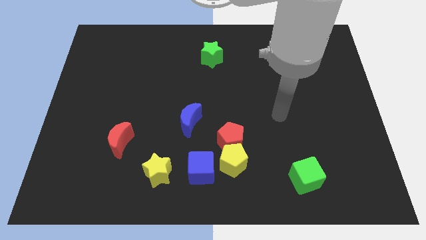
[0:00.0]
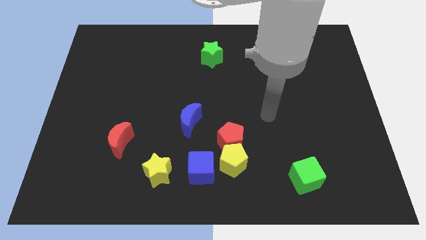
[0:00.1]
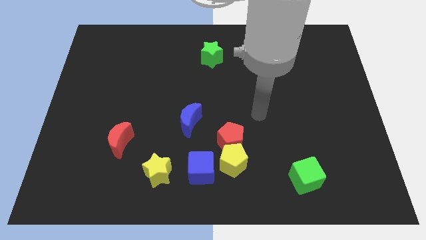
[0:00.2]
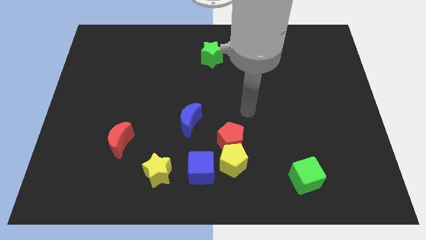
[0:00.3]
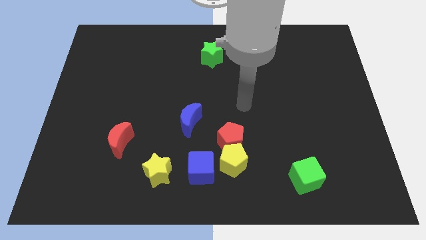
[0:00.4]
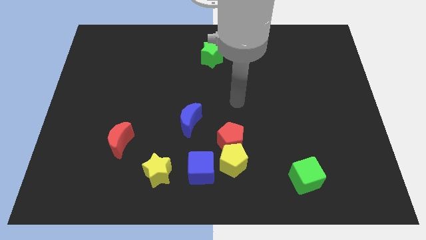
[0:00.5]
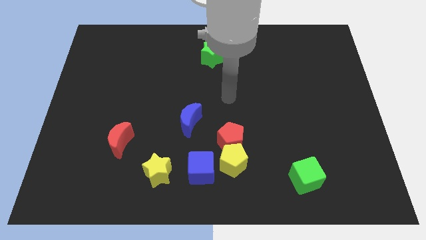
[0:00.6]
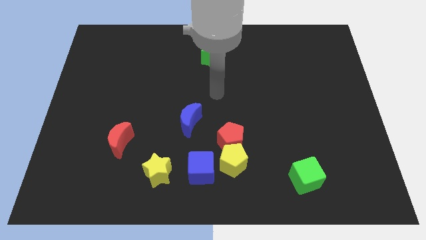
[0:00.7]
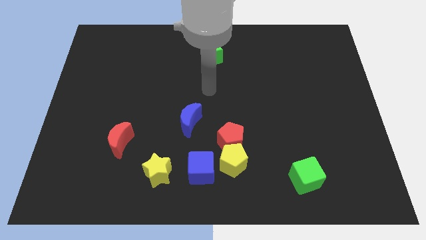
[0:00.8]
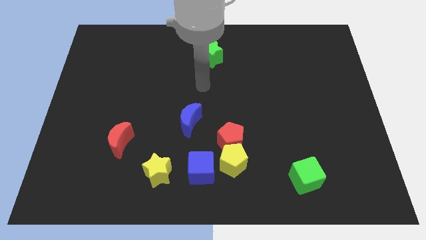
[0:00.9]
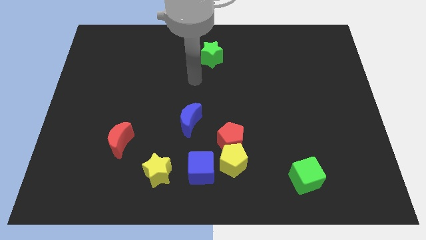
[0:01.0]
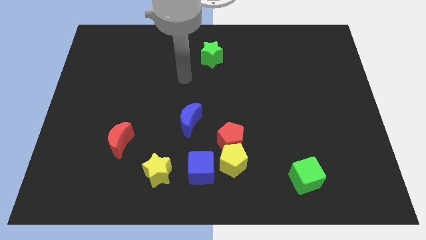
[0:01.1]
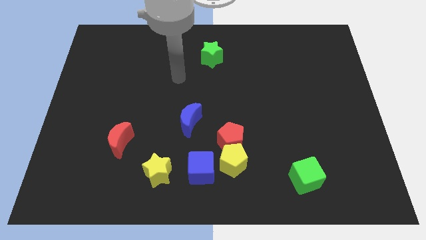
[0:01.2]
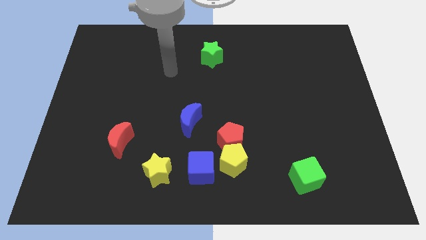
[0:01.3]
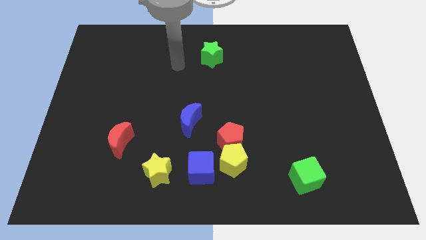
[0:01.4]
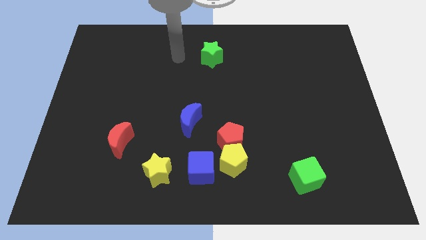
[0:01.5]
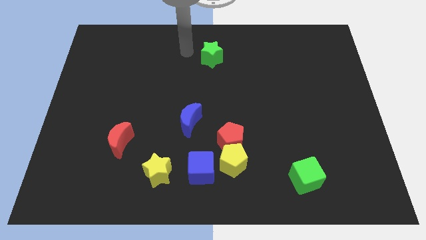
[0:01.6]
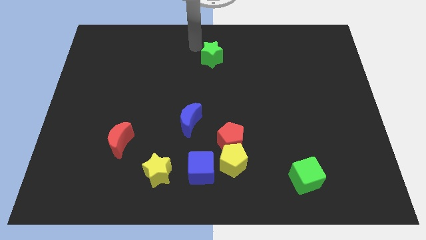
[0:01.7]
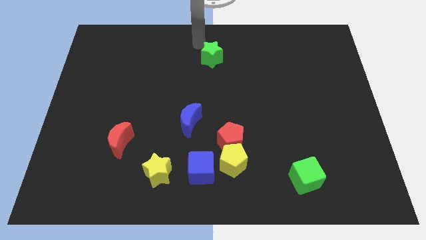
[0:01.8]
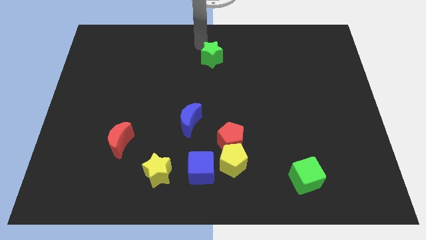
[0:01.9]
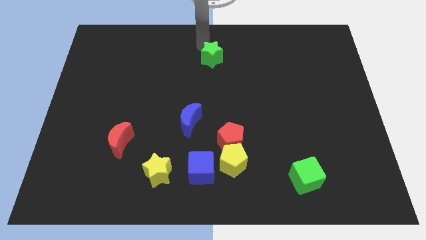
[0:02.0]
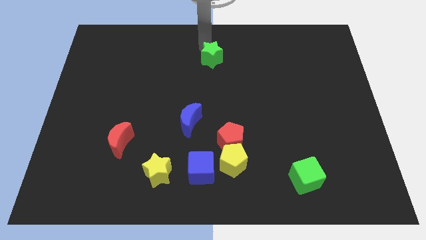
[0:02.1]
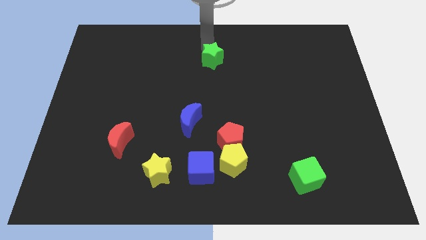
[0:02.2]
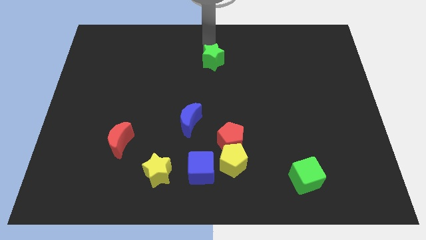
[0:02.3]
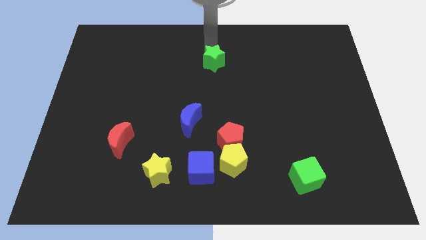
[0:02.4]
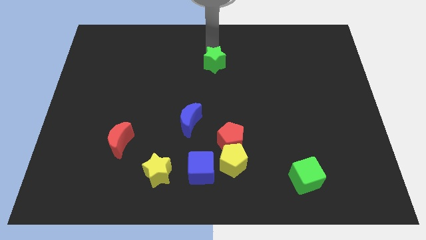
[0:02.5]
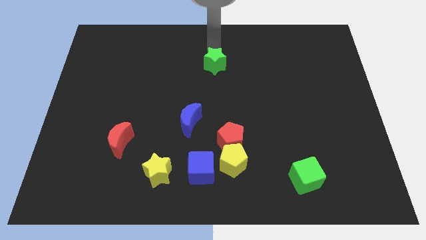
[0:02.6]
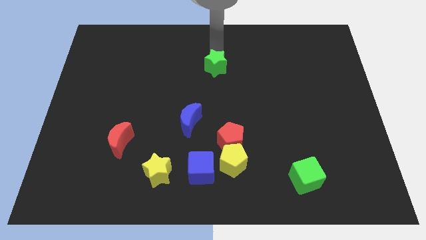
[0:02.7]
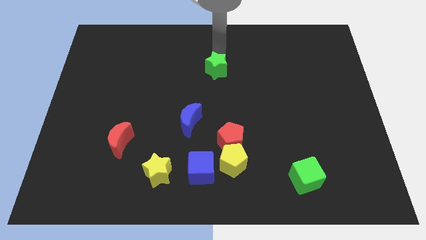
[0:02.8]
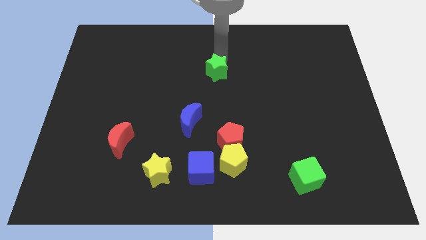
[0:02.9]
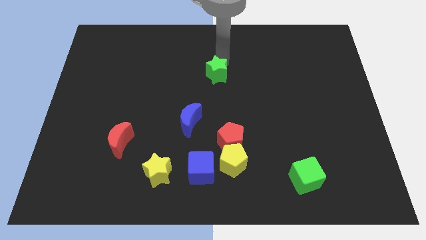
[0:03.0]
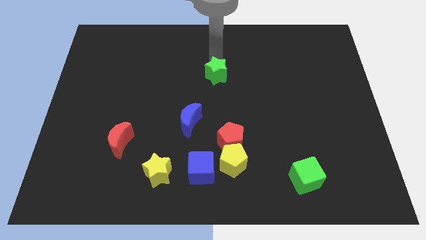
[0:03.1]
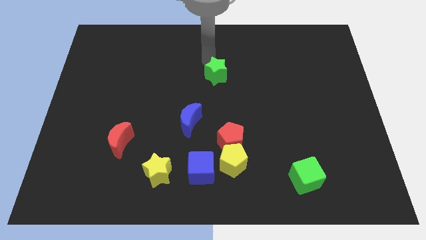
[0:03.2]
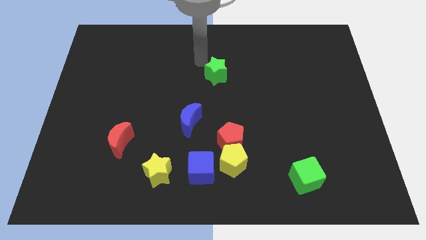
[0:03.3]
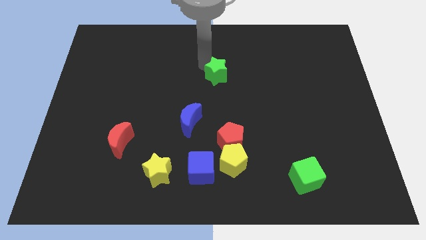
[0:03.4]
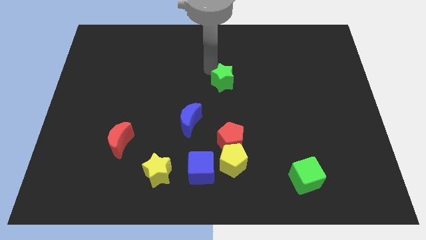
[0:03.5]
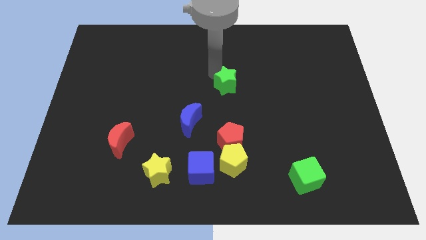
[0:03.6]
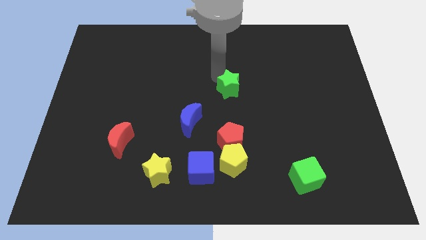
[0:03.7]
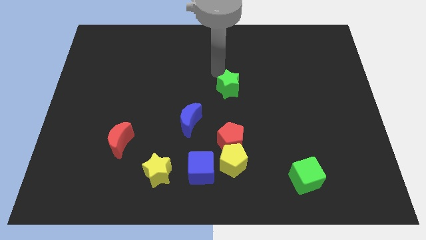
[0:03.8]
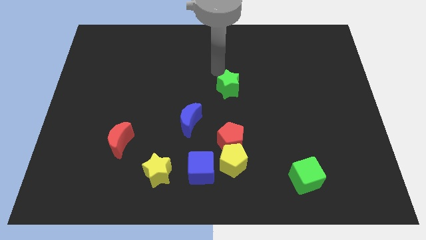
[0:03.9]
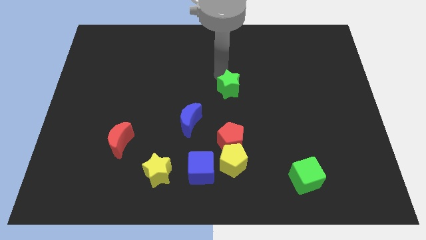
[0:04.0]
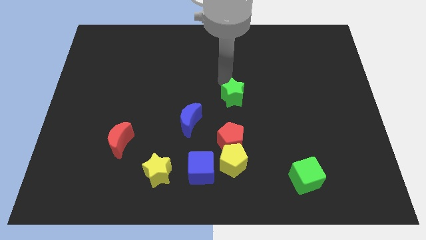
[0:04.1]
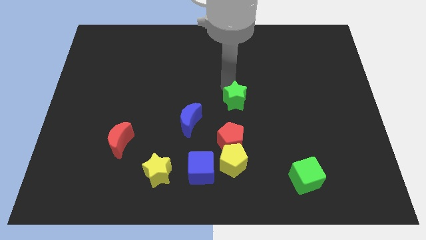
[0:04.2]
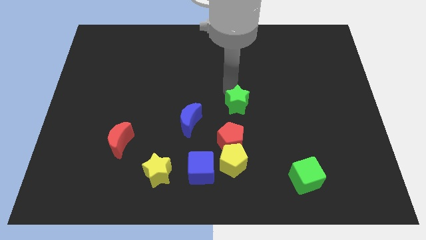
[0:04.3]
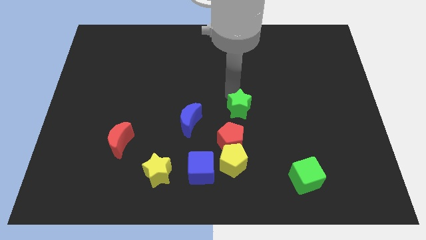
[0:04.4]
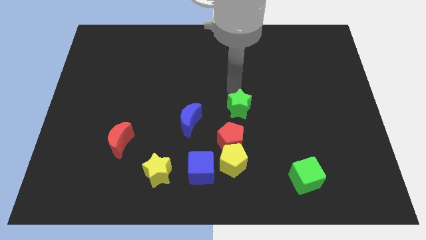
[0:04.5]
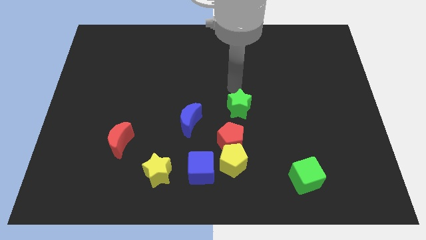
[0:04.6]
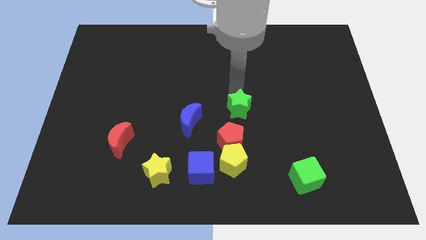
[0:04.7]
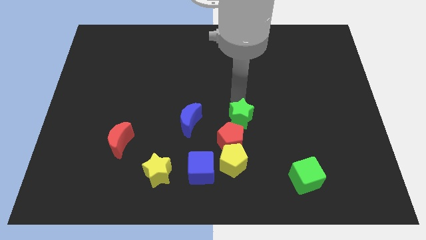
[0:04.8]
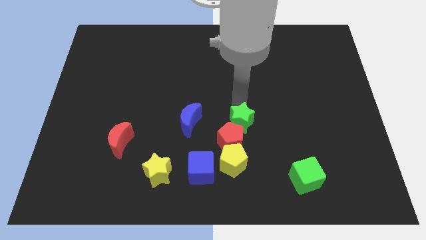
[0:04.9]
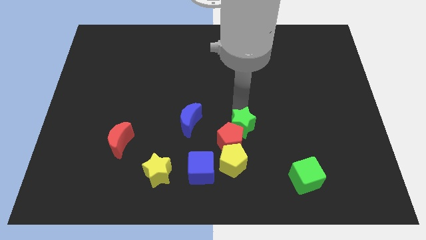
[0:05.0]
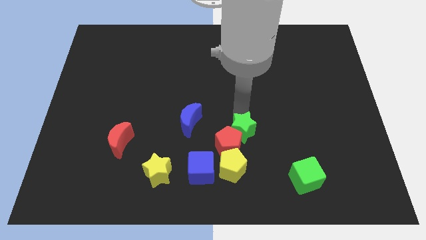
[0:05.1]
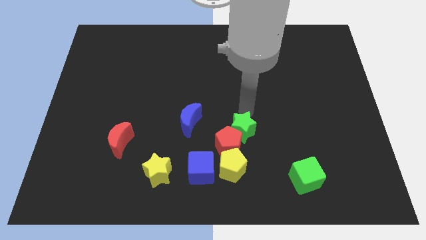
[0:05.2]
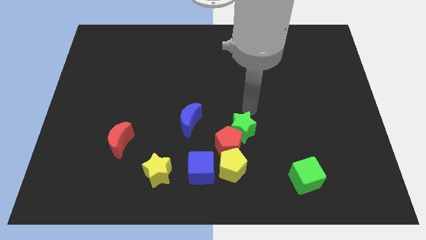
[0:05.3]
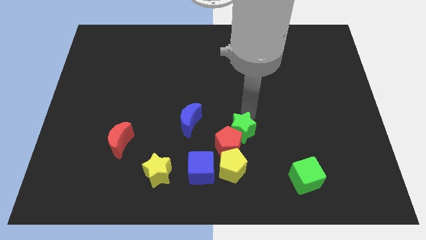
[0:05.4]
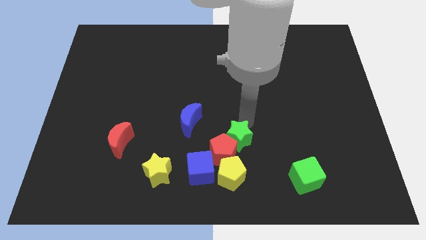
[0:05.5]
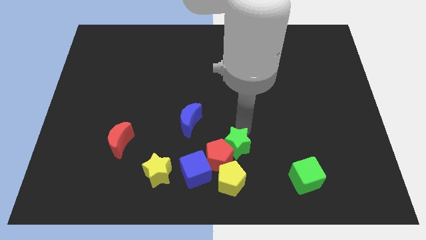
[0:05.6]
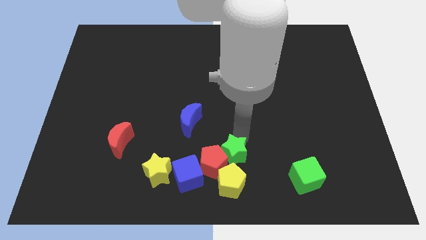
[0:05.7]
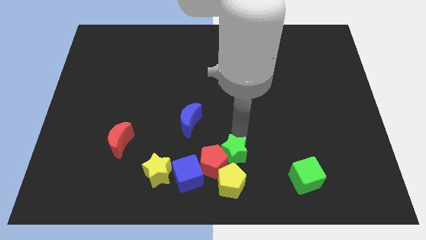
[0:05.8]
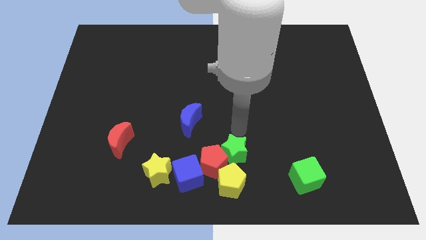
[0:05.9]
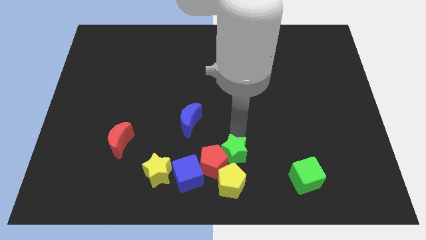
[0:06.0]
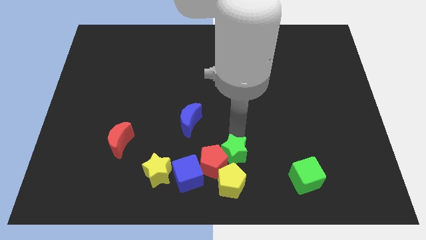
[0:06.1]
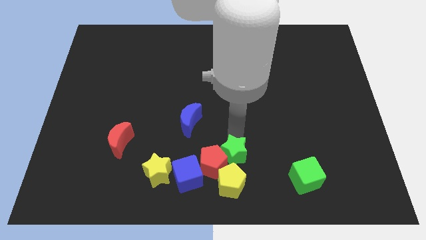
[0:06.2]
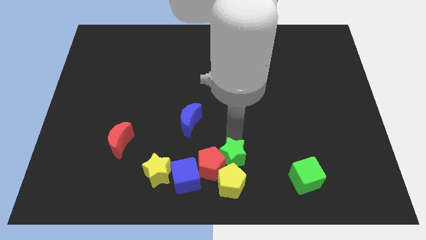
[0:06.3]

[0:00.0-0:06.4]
put the green star towards the yellow pentagon

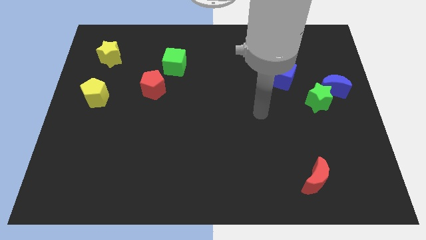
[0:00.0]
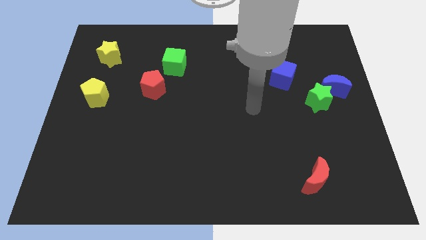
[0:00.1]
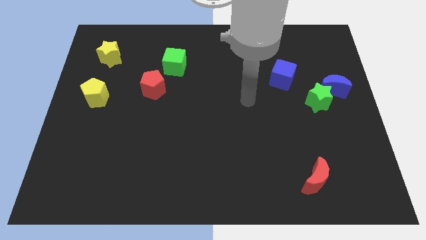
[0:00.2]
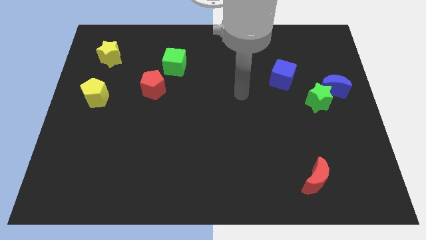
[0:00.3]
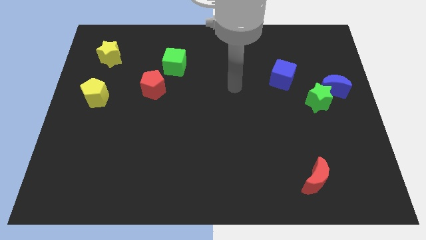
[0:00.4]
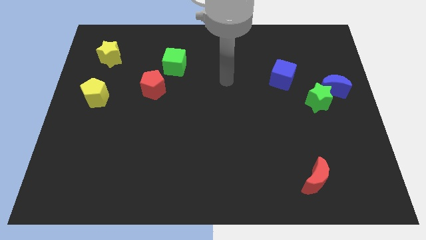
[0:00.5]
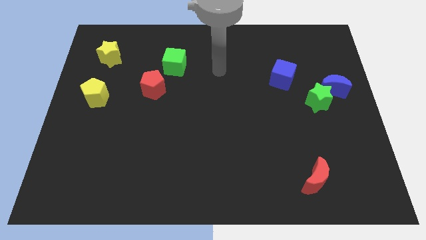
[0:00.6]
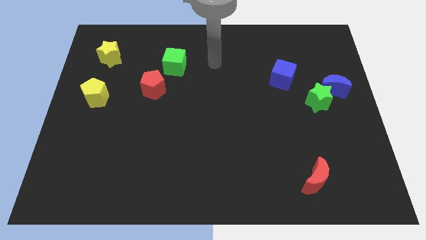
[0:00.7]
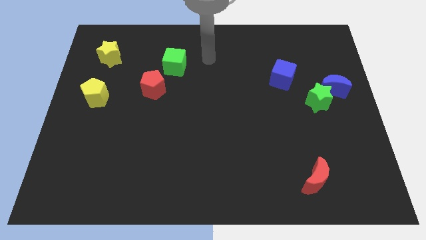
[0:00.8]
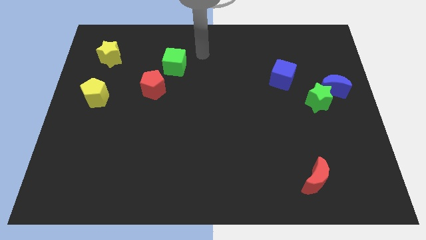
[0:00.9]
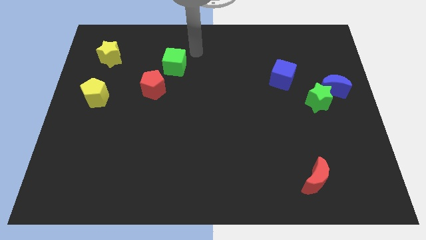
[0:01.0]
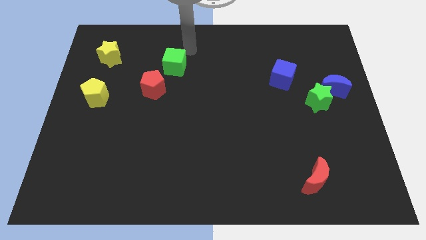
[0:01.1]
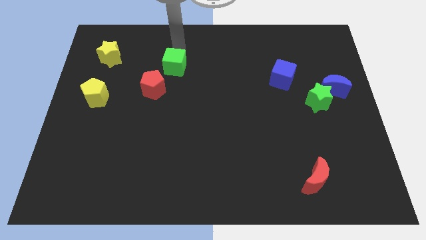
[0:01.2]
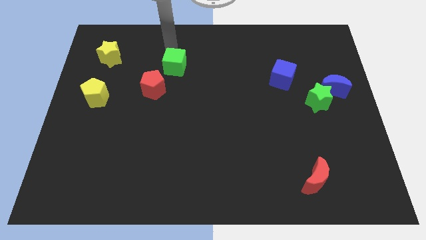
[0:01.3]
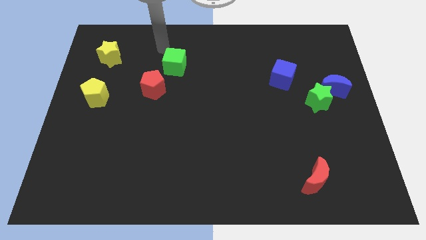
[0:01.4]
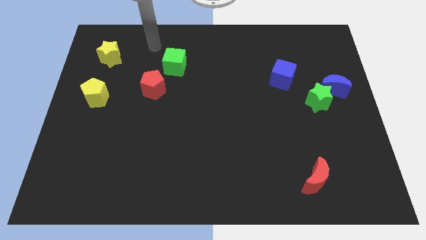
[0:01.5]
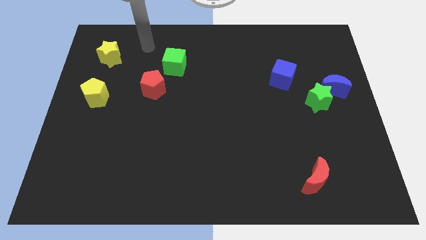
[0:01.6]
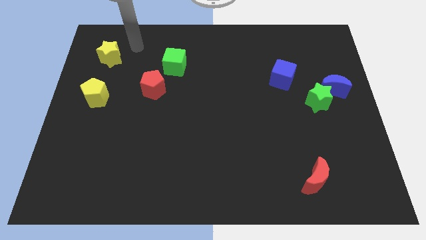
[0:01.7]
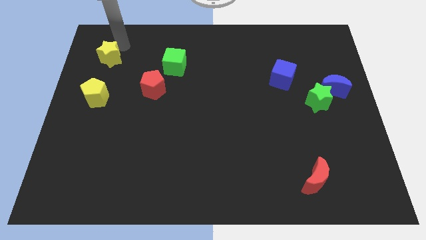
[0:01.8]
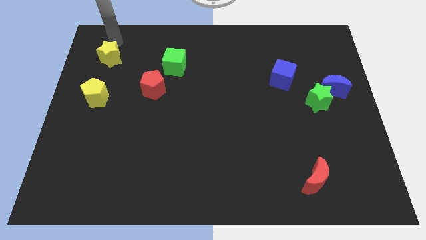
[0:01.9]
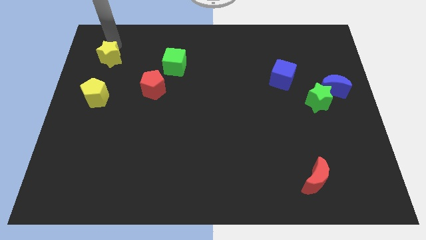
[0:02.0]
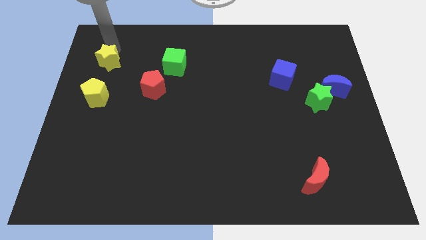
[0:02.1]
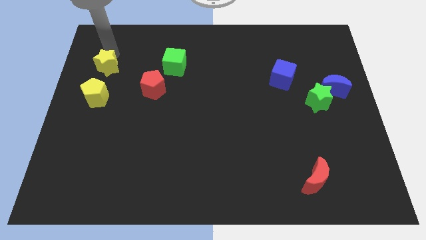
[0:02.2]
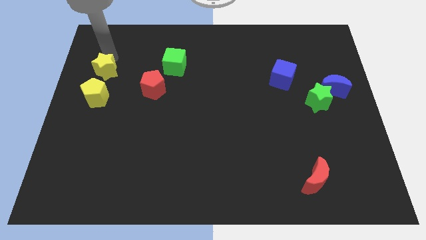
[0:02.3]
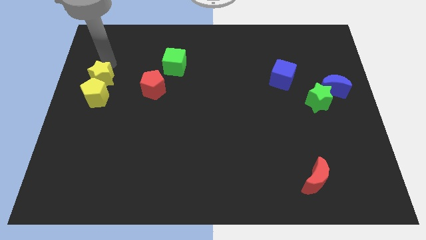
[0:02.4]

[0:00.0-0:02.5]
push the yellow star next to the yellow pentagon
